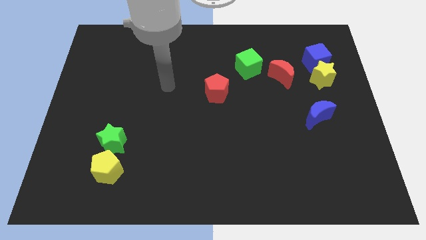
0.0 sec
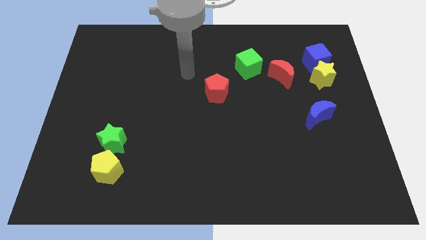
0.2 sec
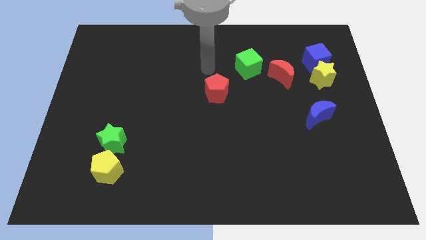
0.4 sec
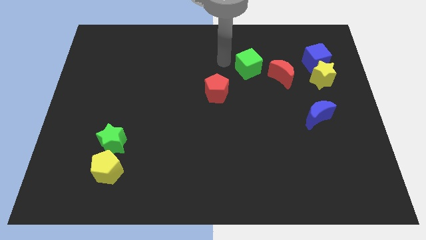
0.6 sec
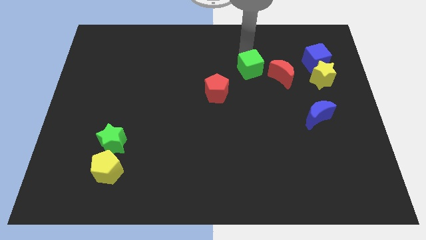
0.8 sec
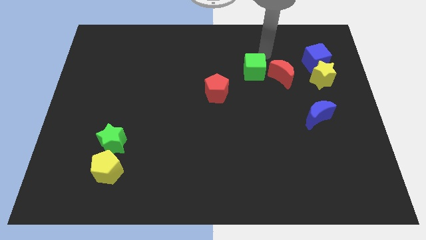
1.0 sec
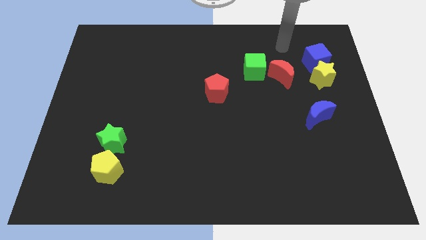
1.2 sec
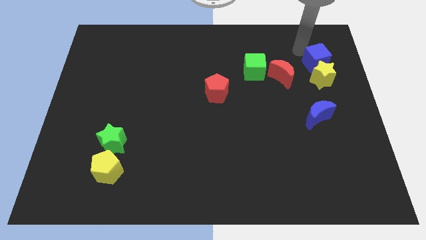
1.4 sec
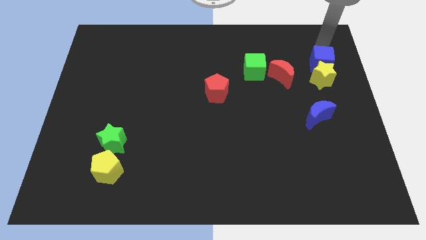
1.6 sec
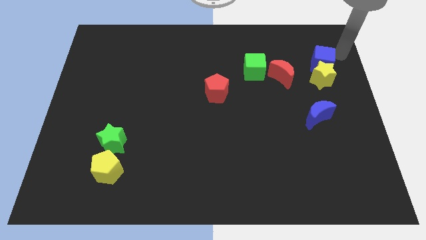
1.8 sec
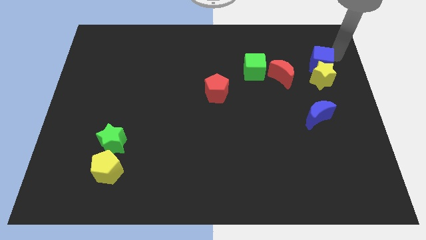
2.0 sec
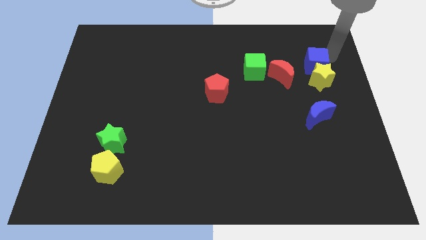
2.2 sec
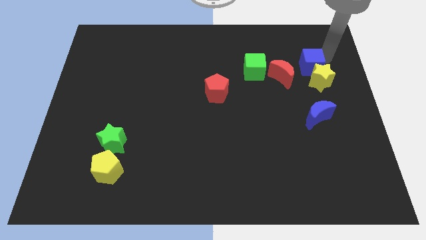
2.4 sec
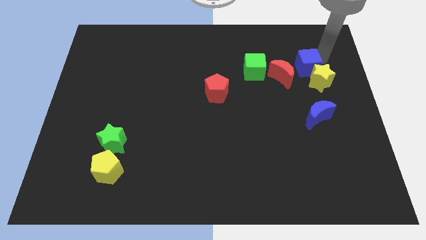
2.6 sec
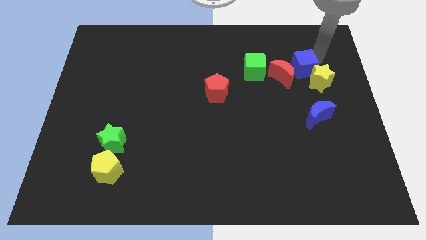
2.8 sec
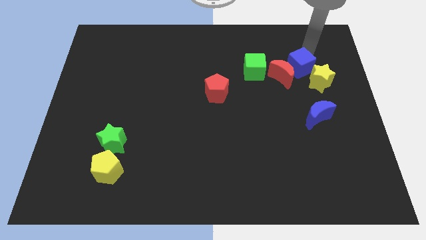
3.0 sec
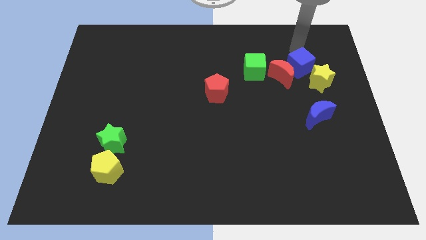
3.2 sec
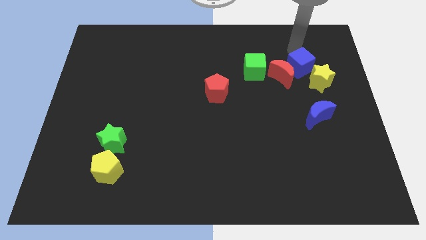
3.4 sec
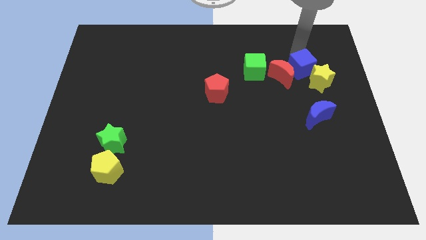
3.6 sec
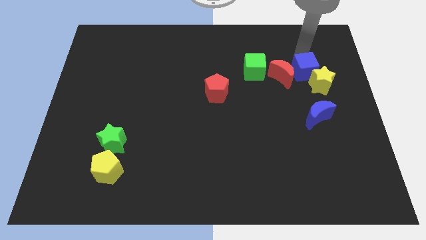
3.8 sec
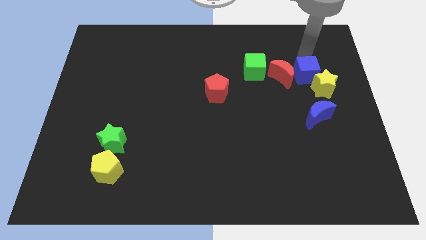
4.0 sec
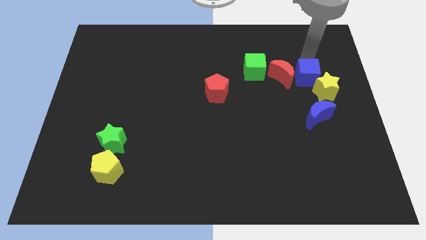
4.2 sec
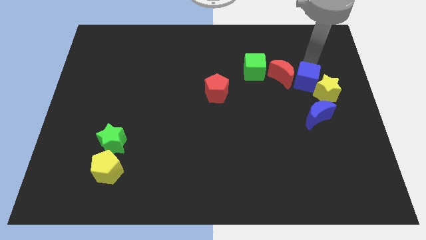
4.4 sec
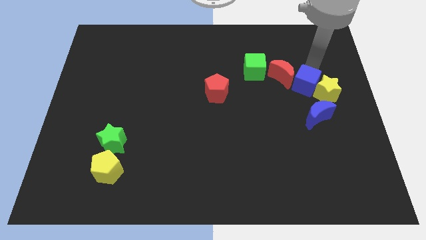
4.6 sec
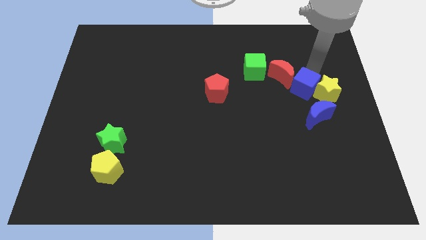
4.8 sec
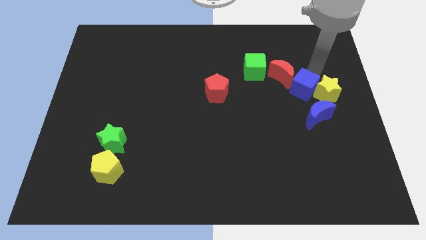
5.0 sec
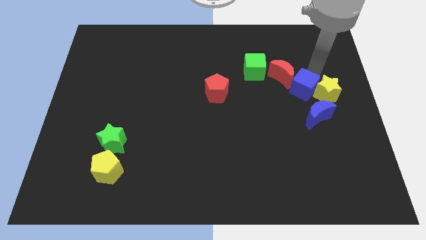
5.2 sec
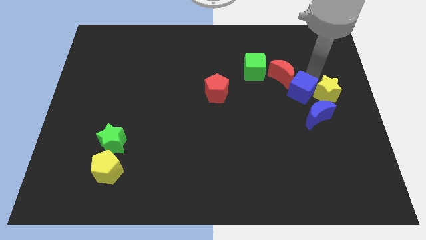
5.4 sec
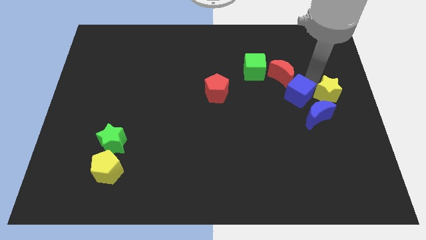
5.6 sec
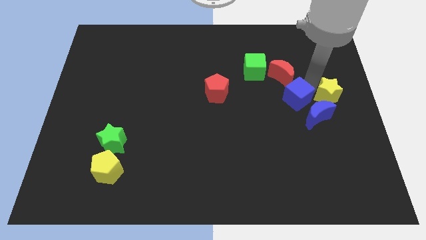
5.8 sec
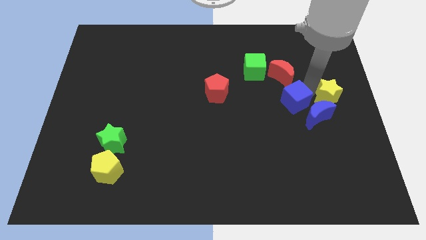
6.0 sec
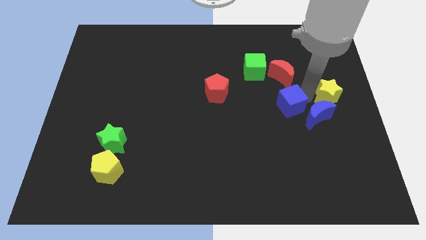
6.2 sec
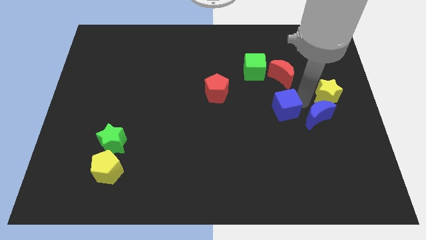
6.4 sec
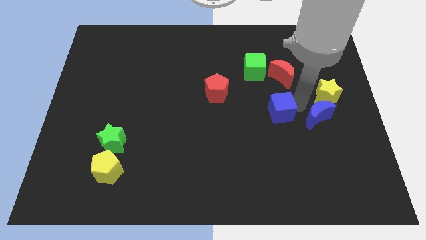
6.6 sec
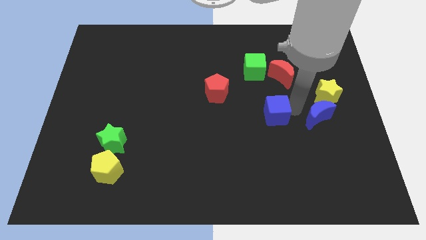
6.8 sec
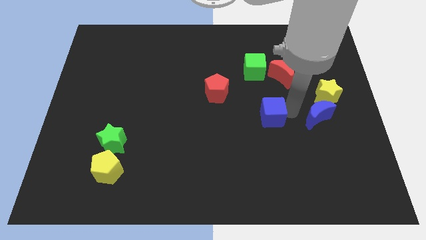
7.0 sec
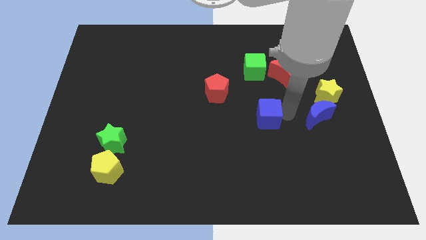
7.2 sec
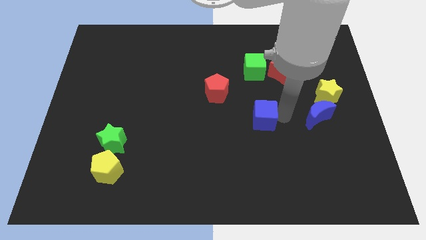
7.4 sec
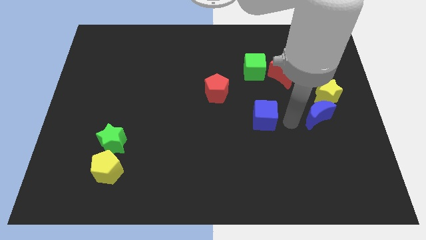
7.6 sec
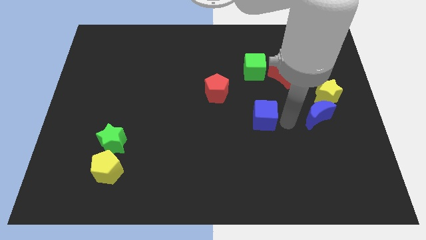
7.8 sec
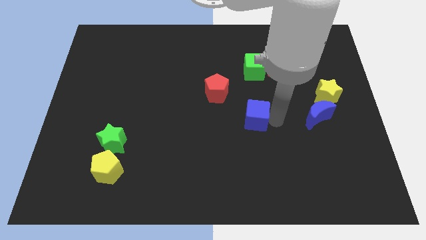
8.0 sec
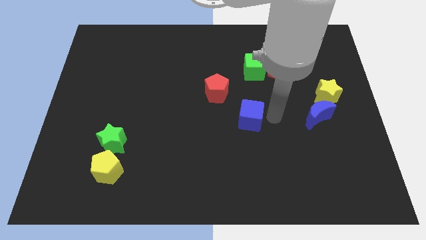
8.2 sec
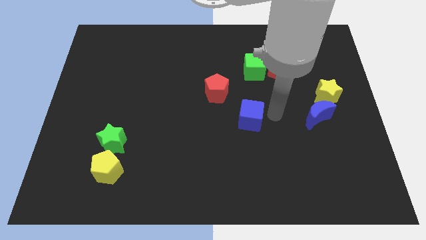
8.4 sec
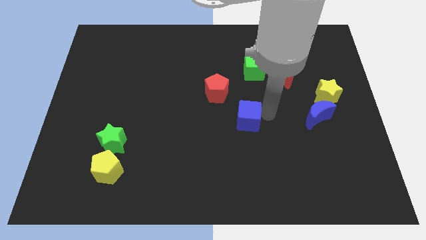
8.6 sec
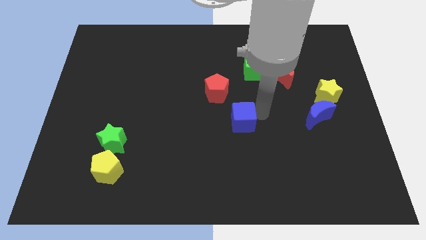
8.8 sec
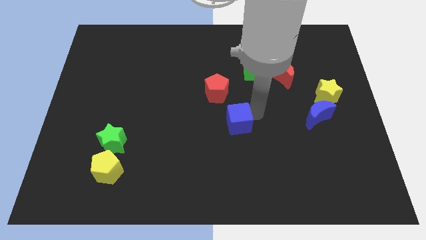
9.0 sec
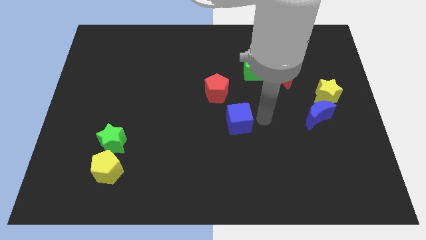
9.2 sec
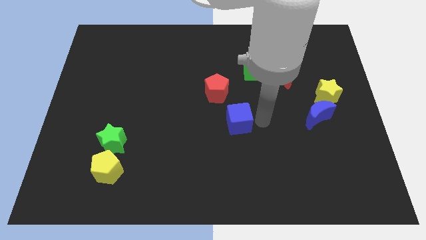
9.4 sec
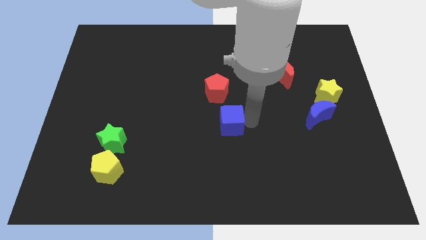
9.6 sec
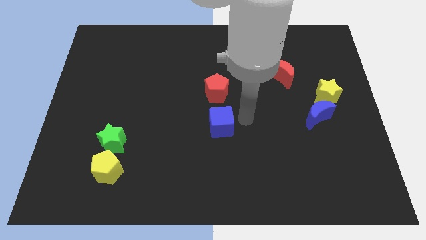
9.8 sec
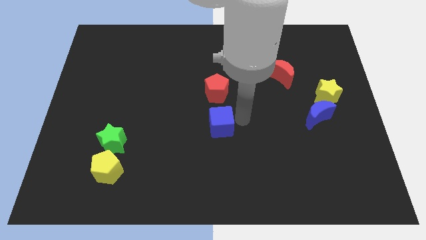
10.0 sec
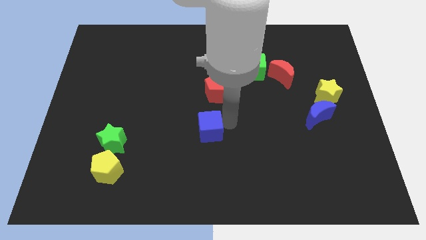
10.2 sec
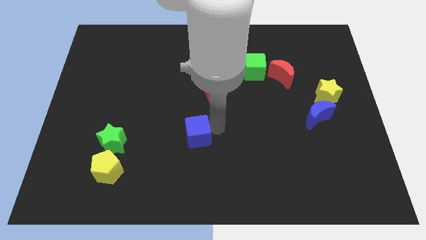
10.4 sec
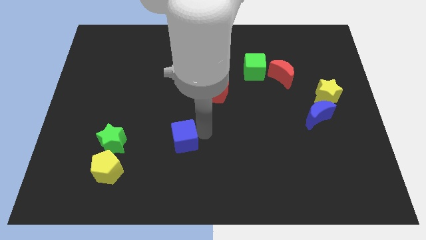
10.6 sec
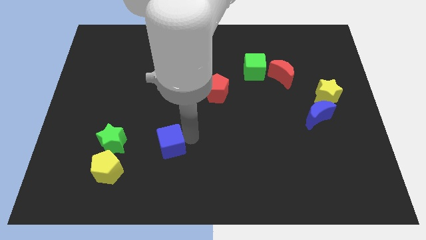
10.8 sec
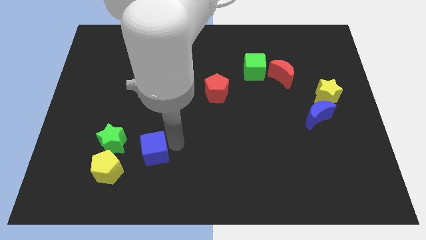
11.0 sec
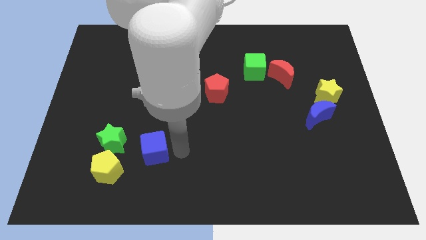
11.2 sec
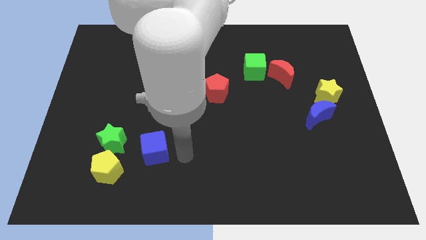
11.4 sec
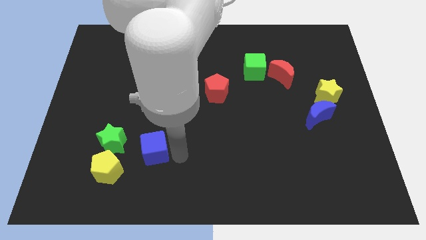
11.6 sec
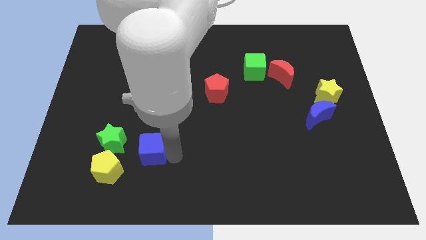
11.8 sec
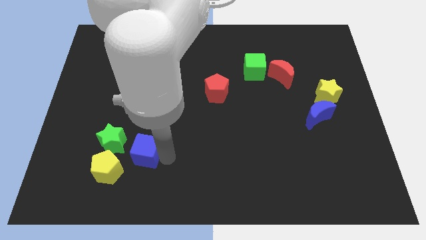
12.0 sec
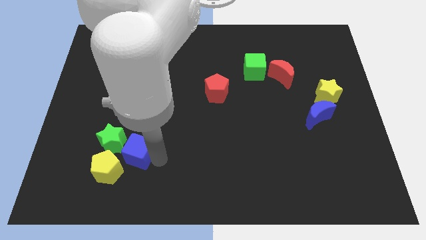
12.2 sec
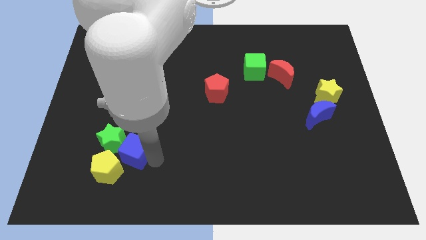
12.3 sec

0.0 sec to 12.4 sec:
move the blue cube close to the green star

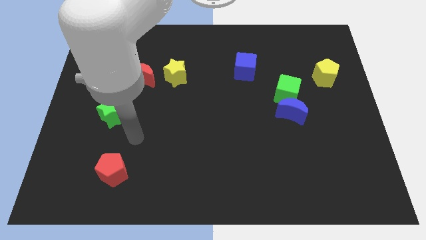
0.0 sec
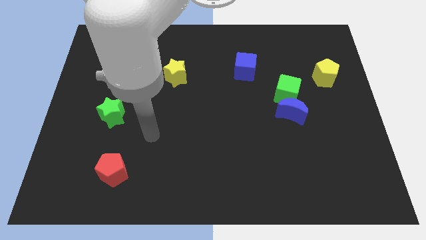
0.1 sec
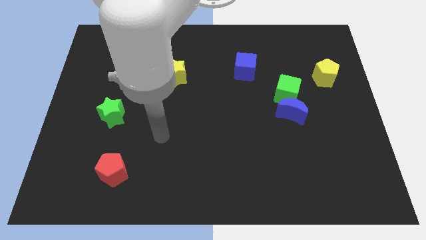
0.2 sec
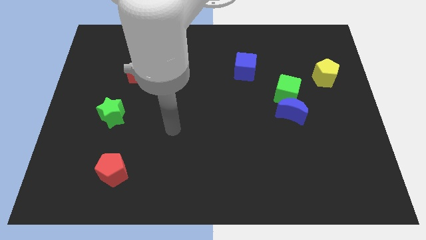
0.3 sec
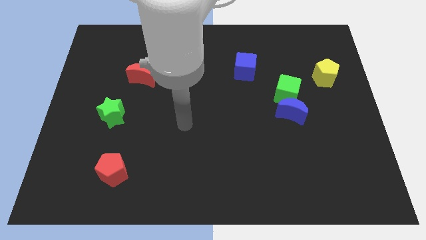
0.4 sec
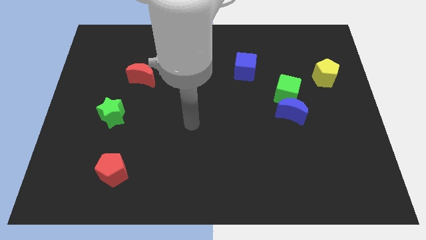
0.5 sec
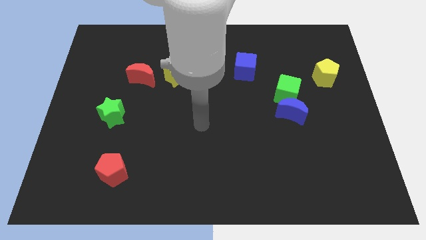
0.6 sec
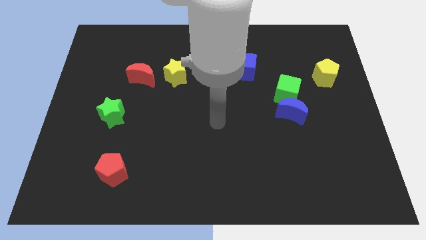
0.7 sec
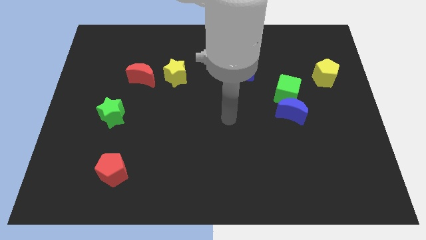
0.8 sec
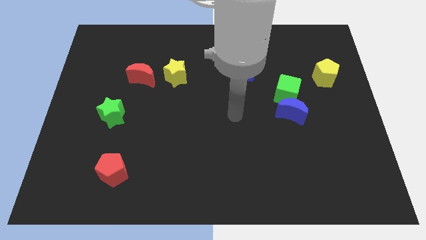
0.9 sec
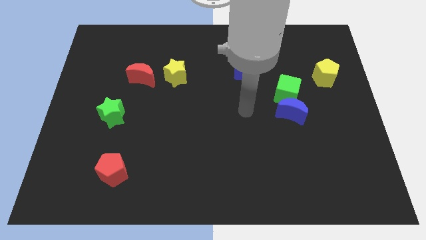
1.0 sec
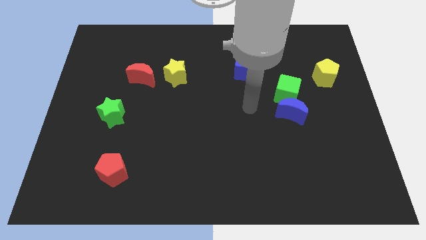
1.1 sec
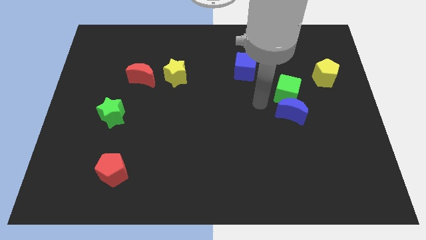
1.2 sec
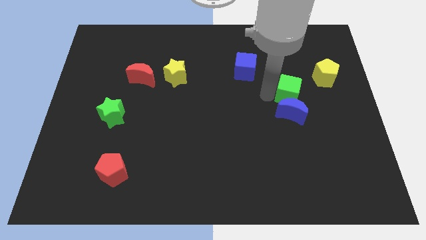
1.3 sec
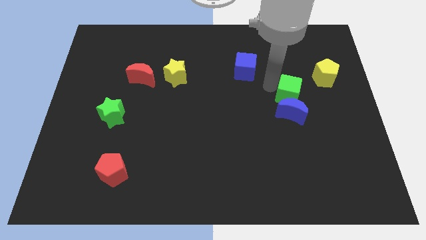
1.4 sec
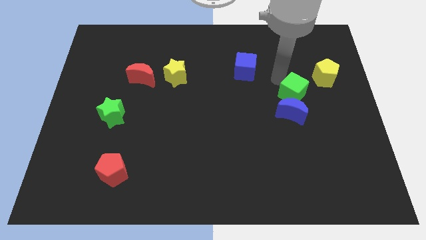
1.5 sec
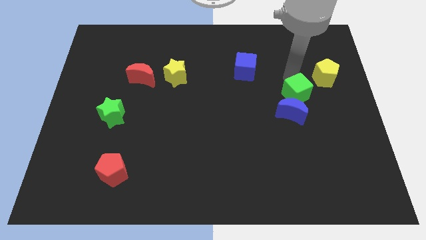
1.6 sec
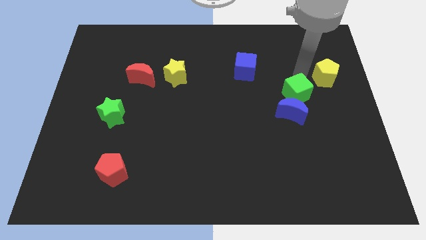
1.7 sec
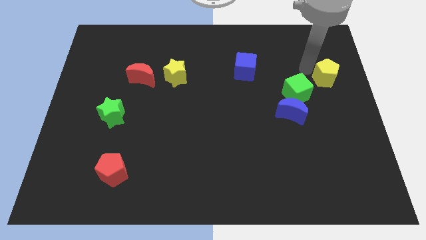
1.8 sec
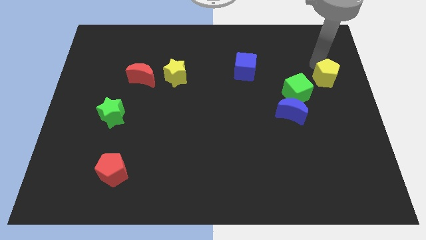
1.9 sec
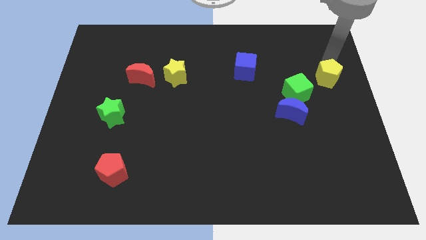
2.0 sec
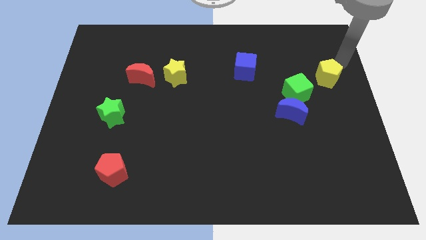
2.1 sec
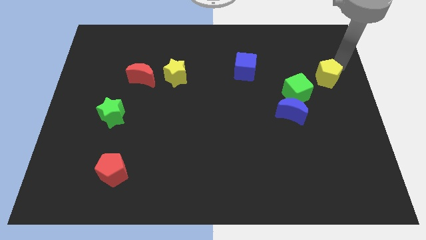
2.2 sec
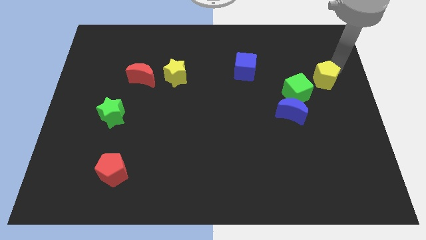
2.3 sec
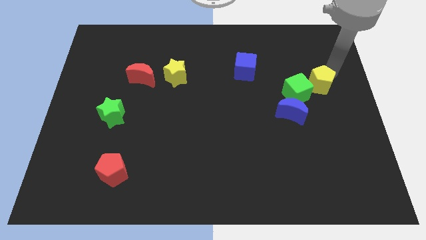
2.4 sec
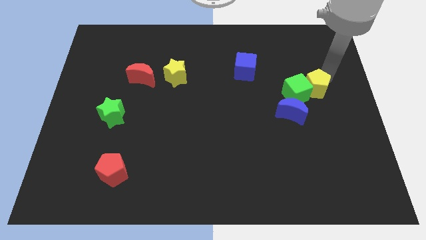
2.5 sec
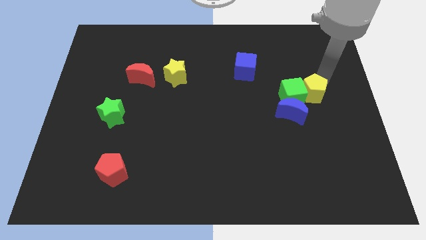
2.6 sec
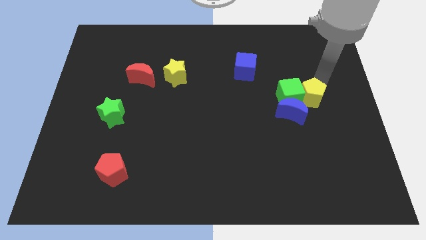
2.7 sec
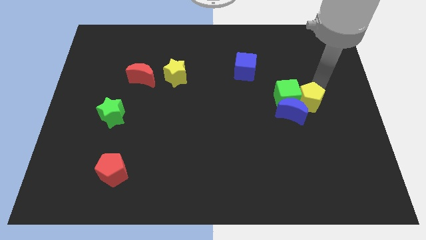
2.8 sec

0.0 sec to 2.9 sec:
slide the yellow pentagon close to the blue moon
